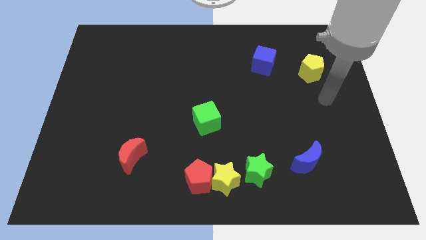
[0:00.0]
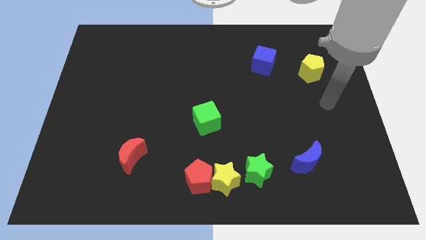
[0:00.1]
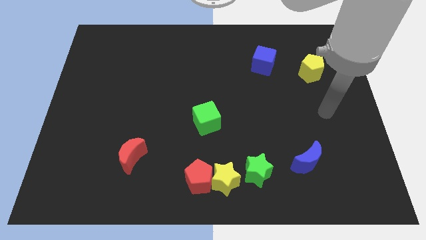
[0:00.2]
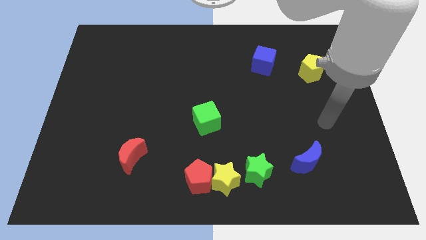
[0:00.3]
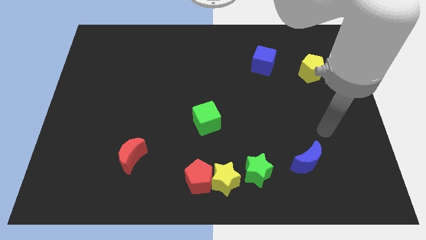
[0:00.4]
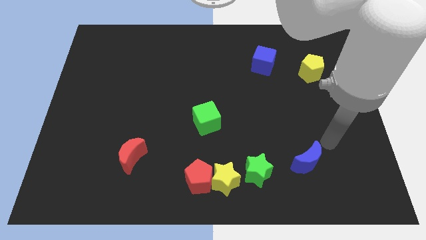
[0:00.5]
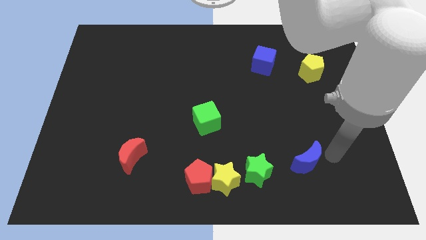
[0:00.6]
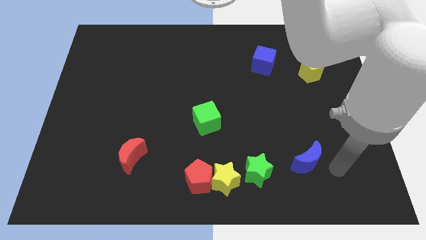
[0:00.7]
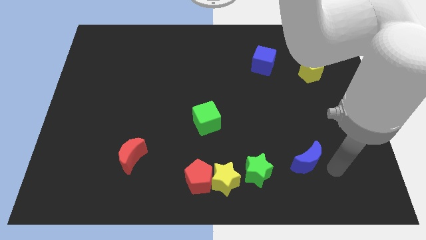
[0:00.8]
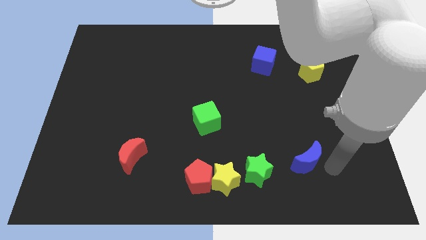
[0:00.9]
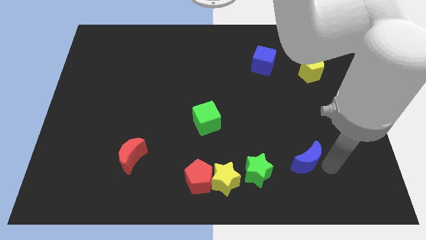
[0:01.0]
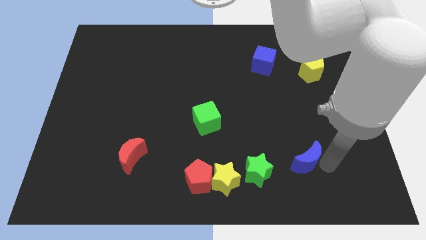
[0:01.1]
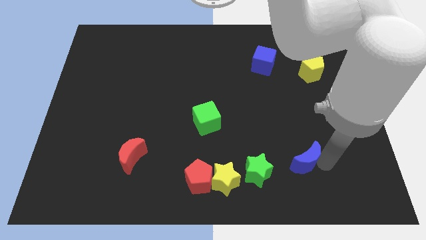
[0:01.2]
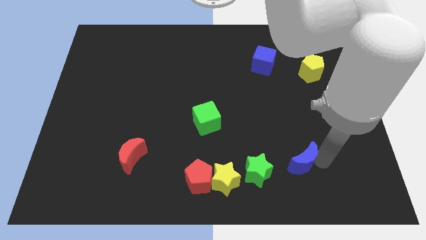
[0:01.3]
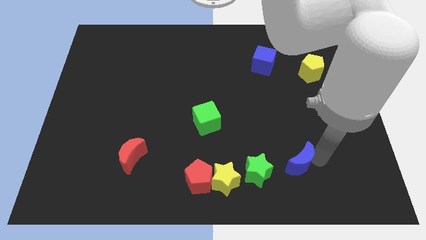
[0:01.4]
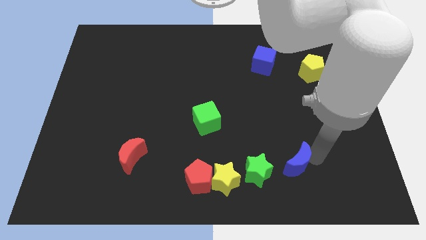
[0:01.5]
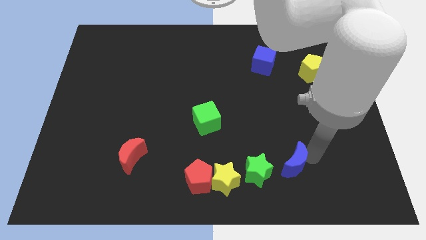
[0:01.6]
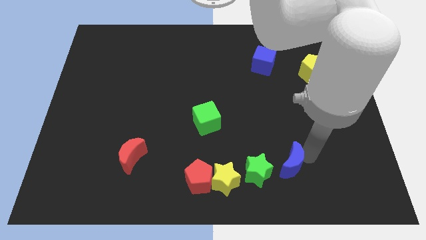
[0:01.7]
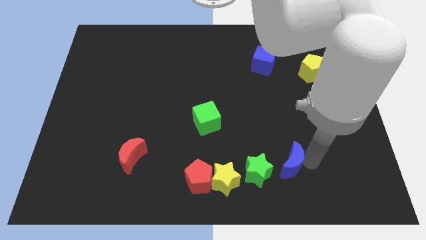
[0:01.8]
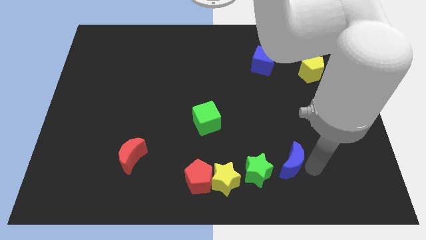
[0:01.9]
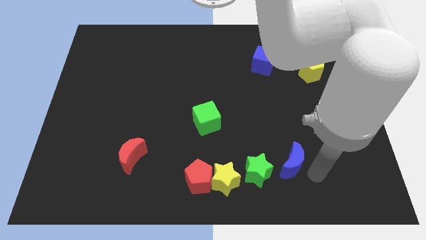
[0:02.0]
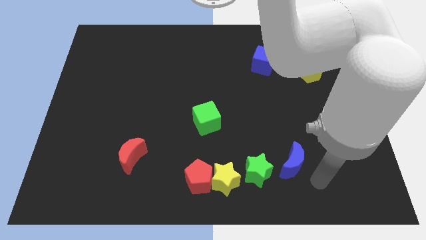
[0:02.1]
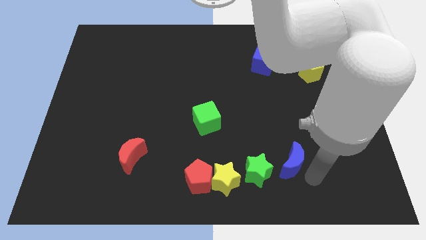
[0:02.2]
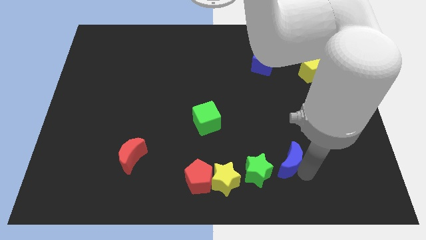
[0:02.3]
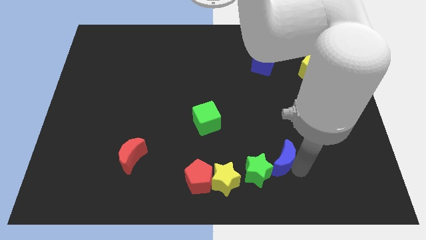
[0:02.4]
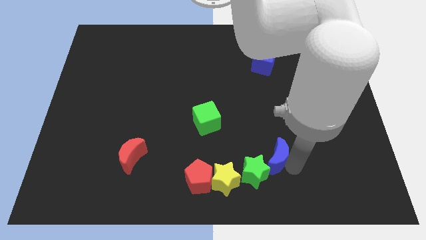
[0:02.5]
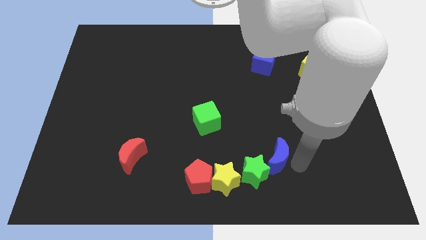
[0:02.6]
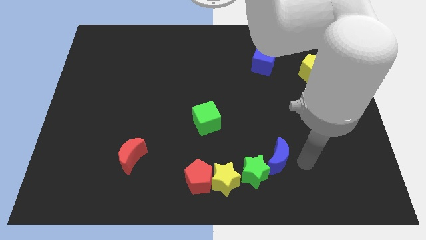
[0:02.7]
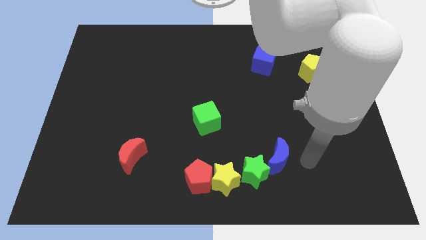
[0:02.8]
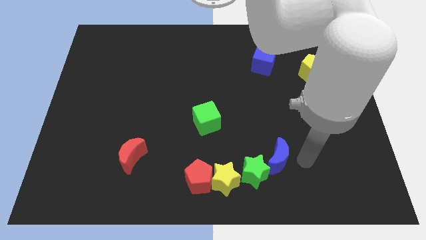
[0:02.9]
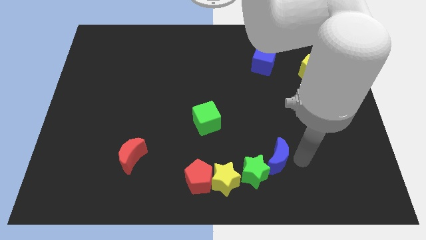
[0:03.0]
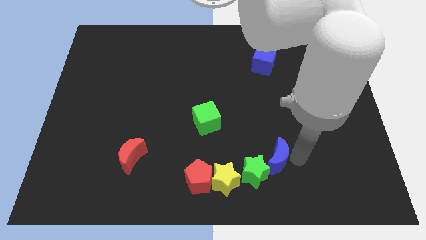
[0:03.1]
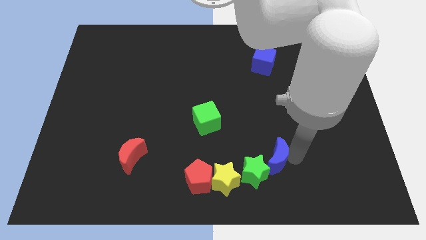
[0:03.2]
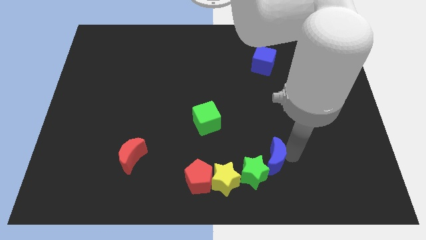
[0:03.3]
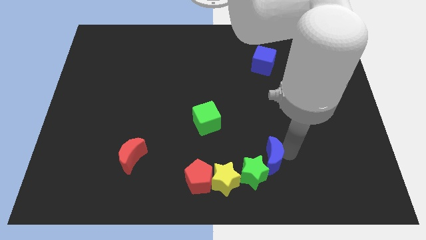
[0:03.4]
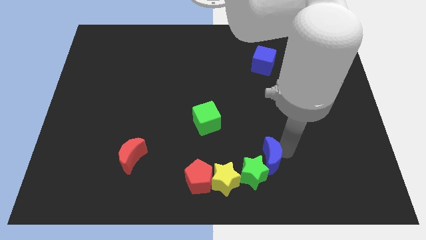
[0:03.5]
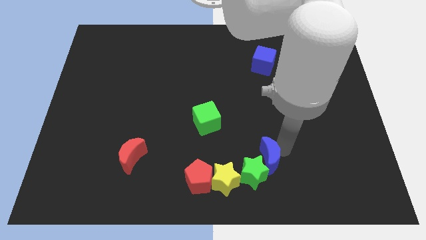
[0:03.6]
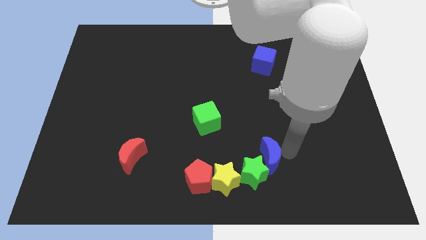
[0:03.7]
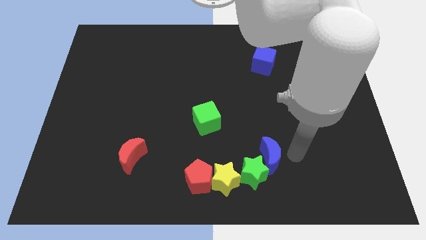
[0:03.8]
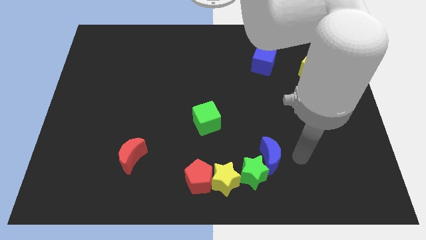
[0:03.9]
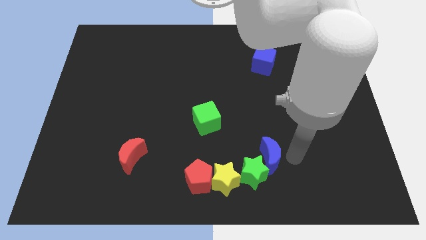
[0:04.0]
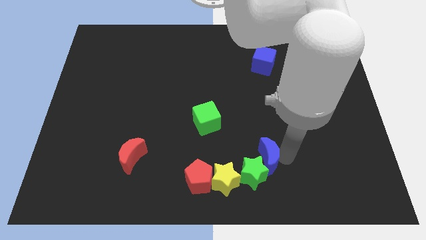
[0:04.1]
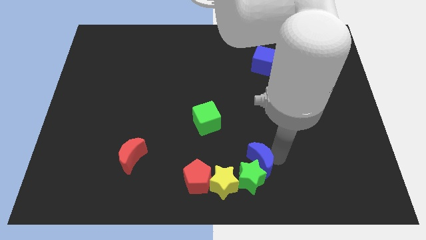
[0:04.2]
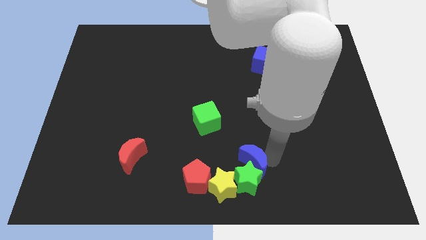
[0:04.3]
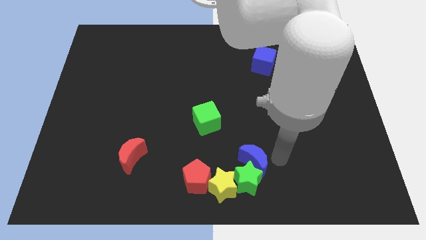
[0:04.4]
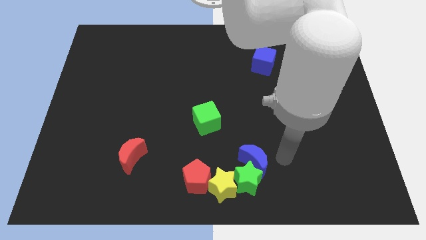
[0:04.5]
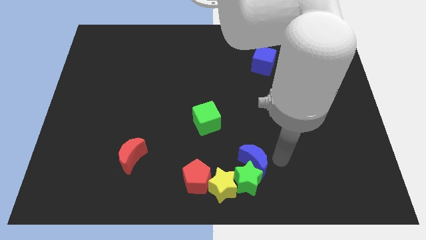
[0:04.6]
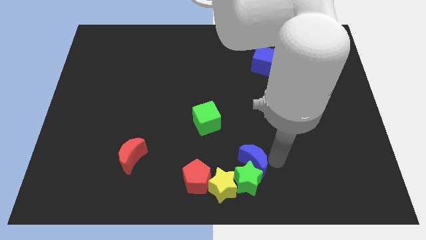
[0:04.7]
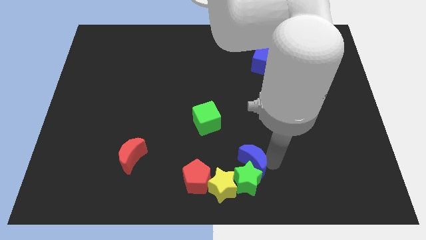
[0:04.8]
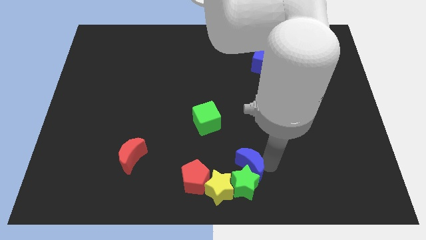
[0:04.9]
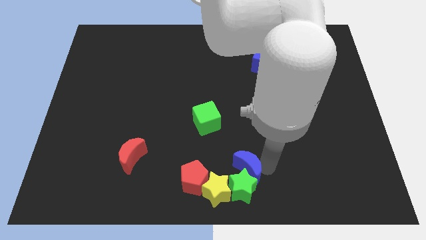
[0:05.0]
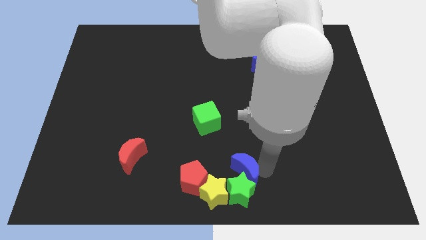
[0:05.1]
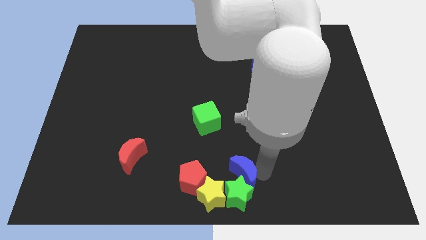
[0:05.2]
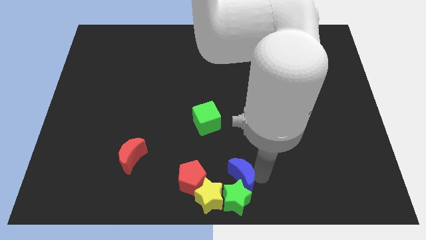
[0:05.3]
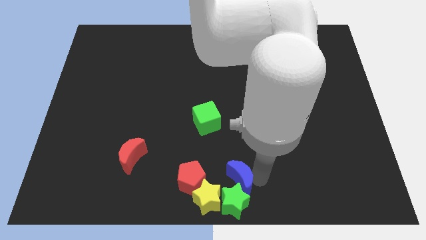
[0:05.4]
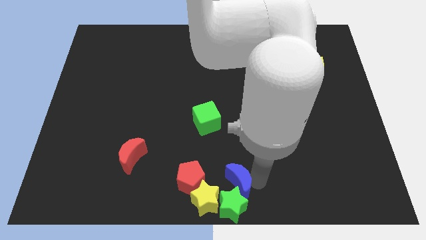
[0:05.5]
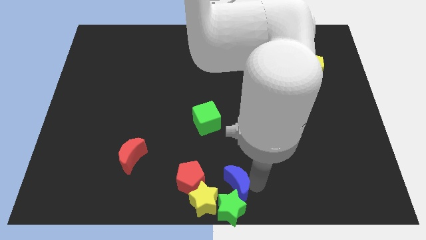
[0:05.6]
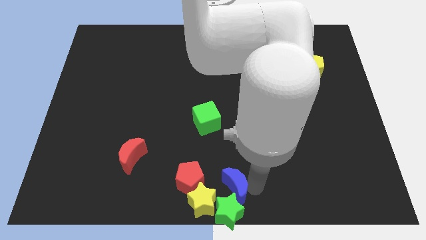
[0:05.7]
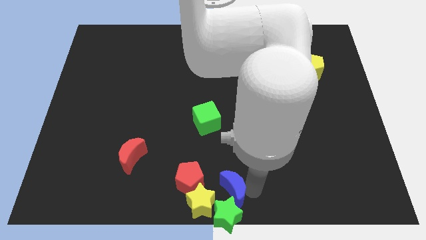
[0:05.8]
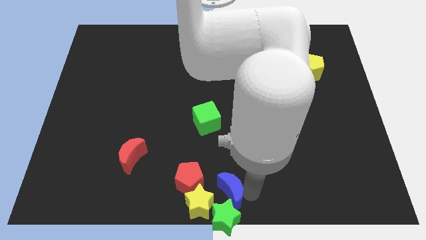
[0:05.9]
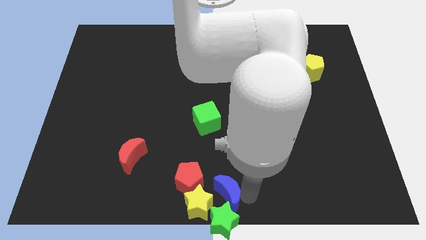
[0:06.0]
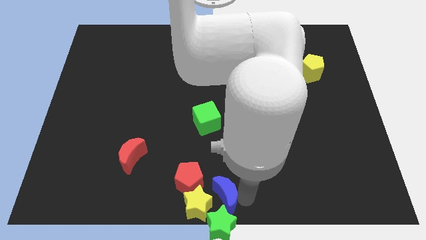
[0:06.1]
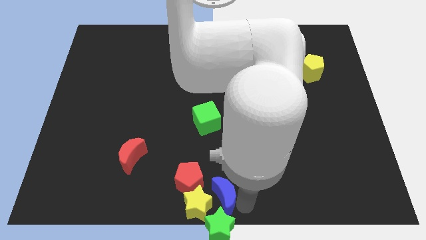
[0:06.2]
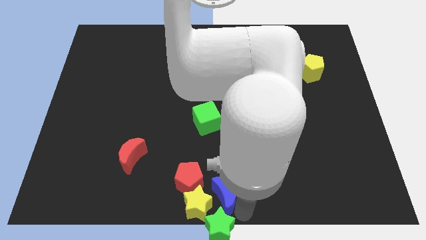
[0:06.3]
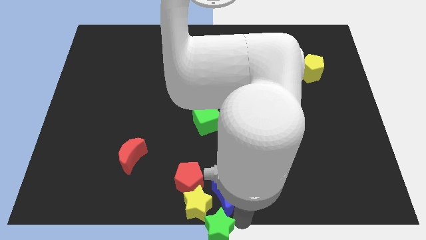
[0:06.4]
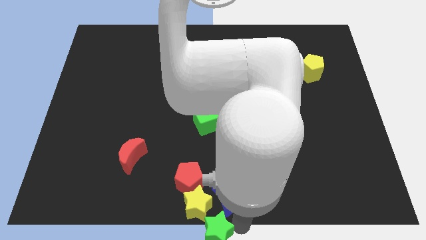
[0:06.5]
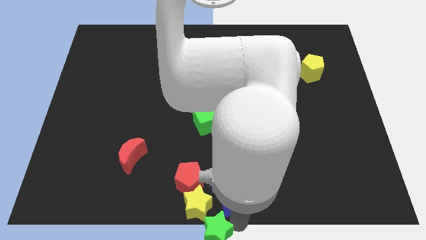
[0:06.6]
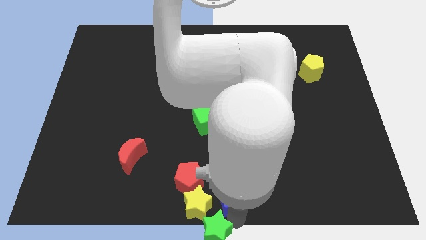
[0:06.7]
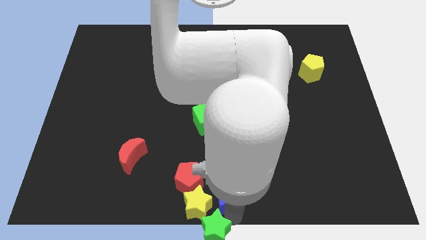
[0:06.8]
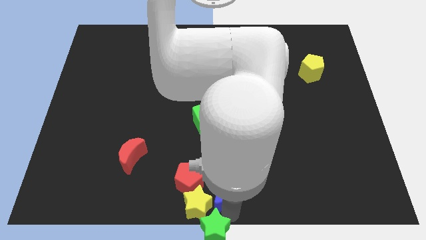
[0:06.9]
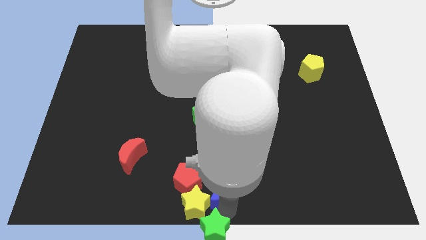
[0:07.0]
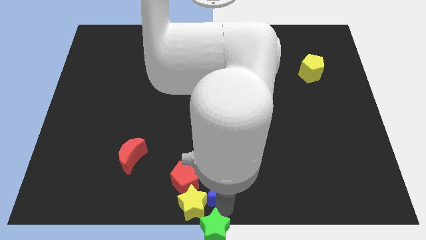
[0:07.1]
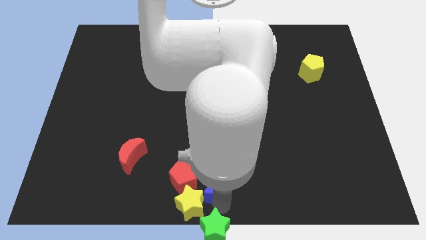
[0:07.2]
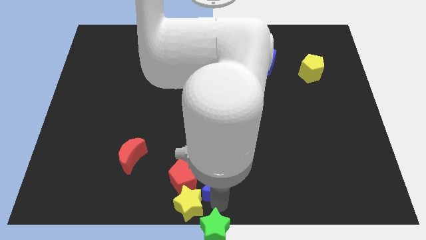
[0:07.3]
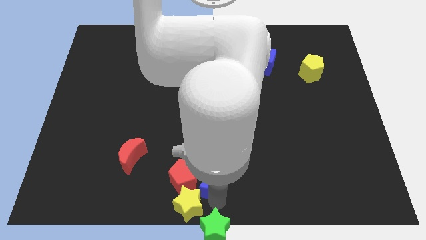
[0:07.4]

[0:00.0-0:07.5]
push the blue moon close to the red pentagon
